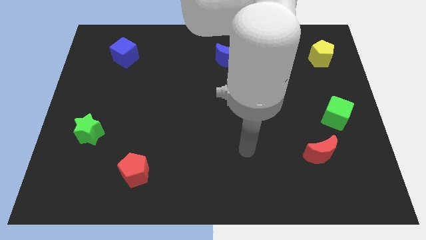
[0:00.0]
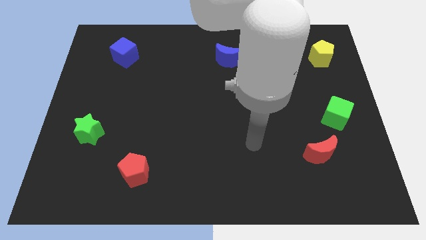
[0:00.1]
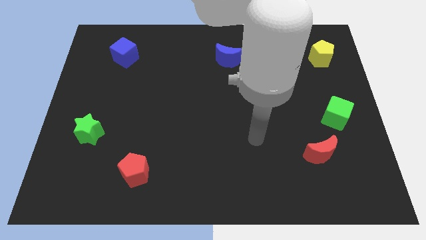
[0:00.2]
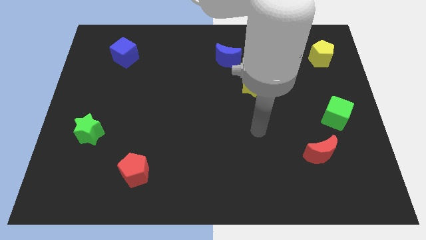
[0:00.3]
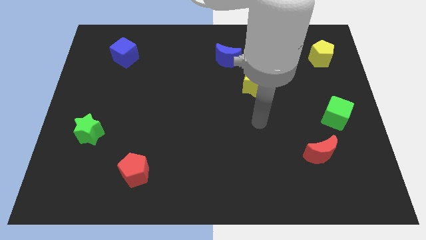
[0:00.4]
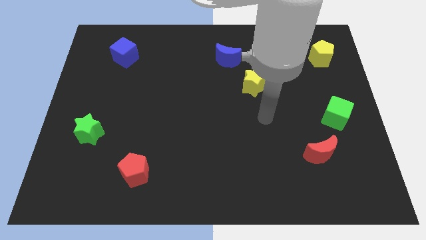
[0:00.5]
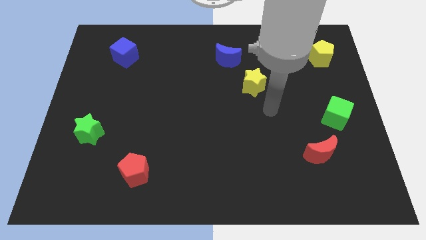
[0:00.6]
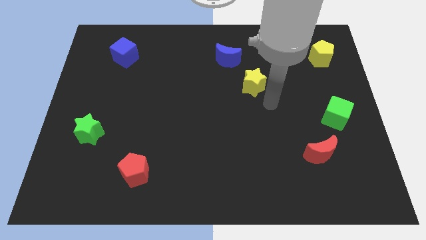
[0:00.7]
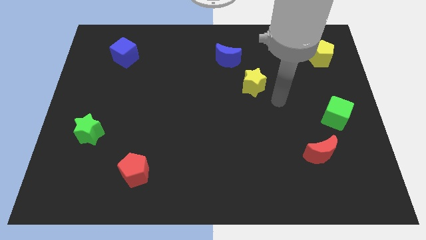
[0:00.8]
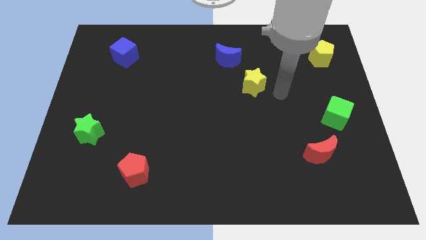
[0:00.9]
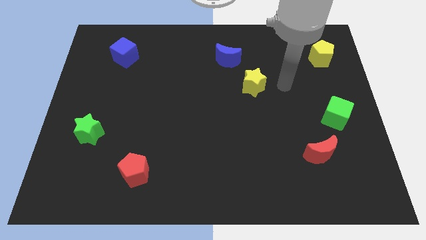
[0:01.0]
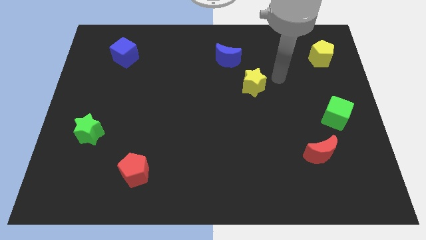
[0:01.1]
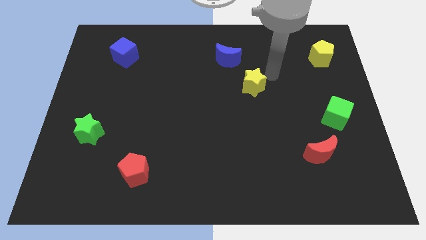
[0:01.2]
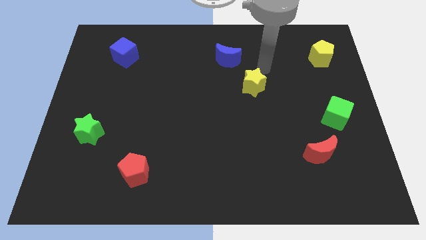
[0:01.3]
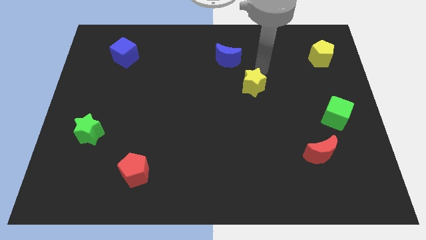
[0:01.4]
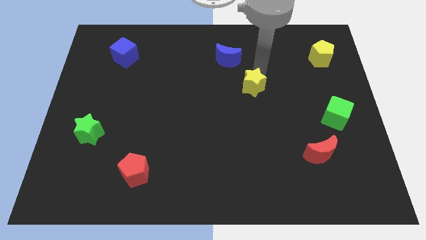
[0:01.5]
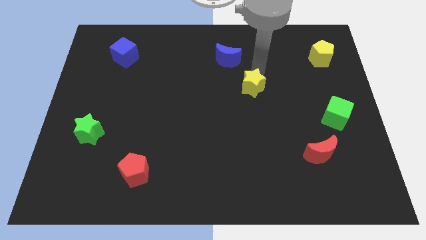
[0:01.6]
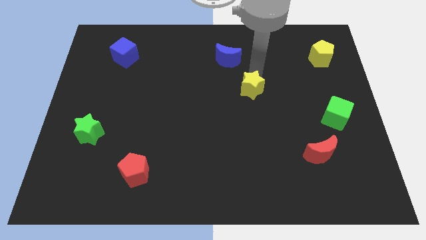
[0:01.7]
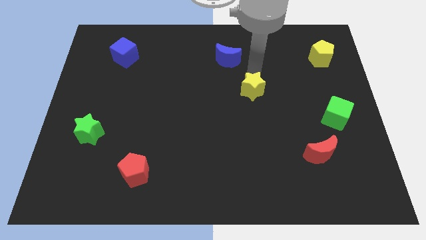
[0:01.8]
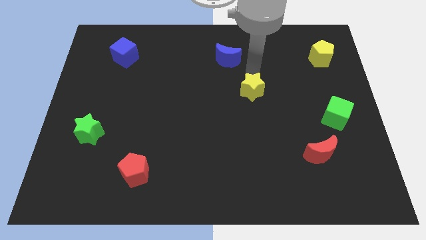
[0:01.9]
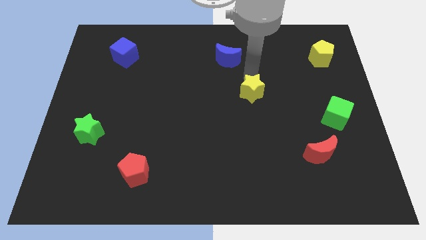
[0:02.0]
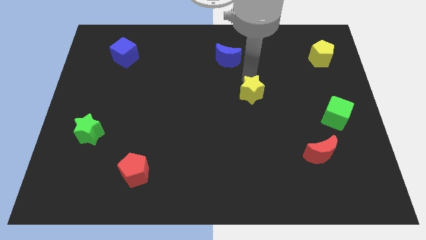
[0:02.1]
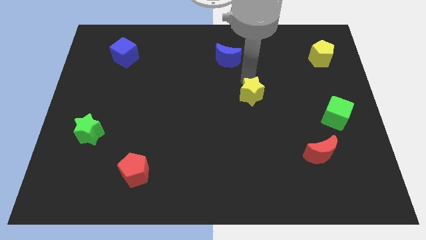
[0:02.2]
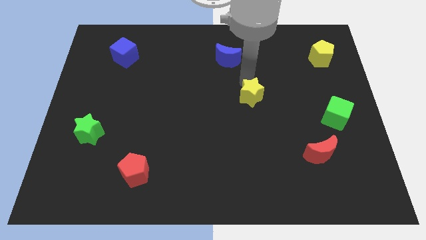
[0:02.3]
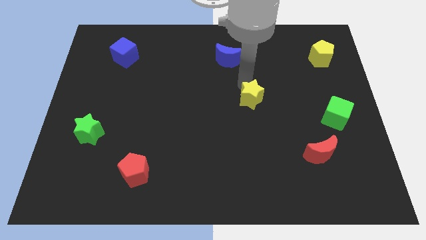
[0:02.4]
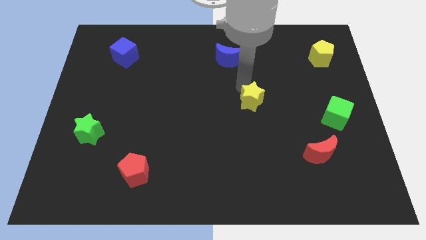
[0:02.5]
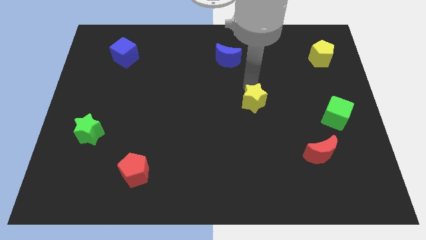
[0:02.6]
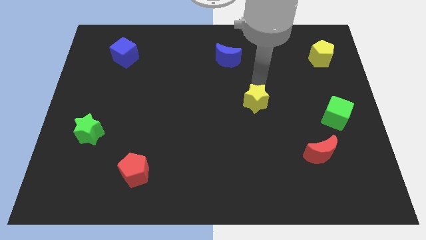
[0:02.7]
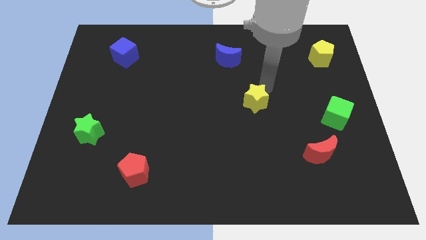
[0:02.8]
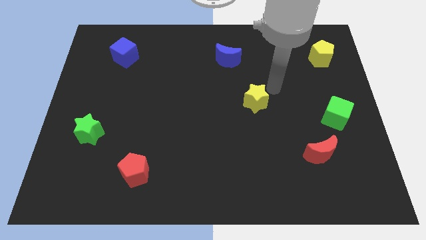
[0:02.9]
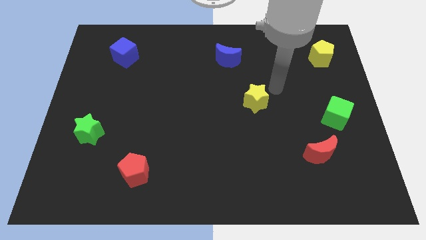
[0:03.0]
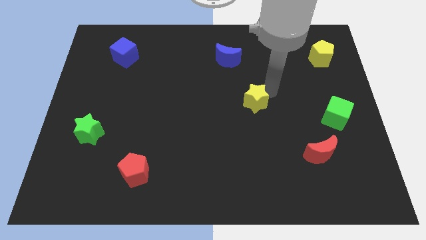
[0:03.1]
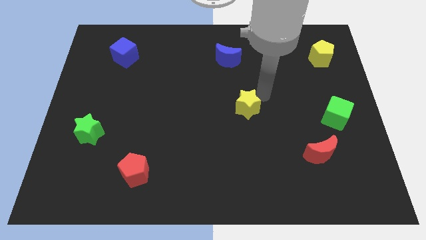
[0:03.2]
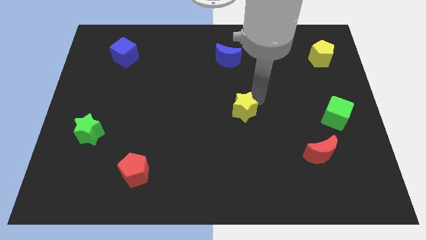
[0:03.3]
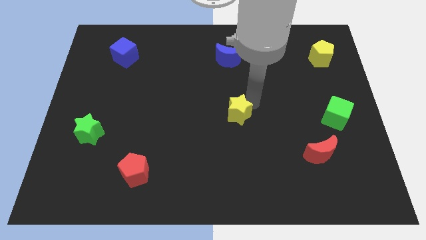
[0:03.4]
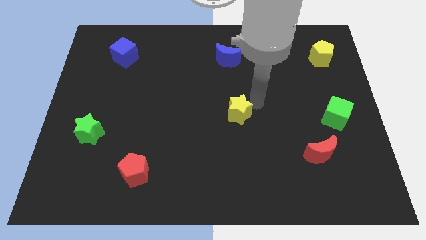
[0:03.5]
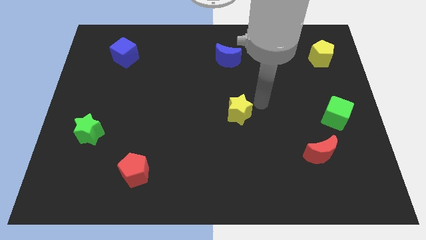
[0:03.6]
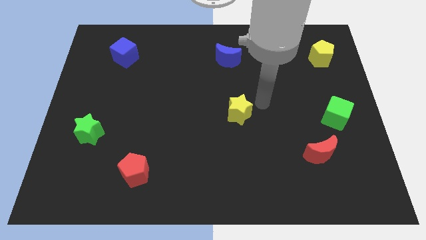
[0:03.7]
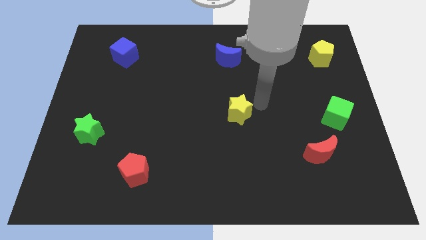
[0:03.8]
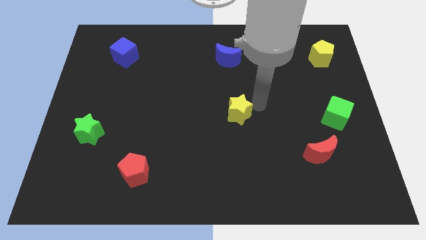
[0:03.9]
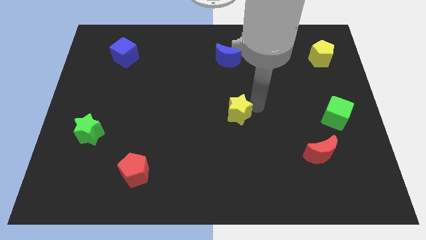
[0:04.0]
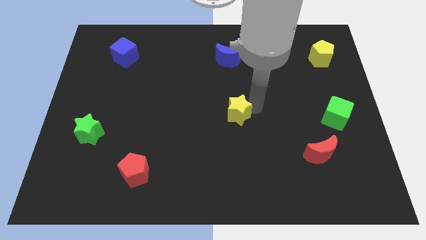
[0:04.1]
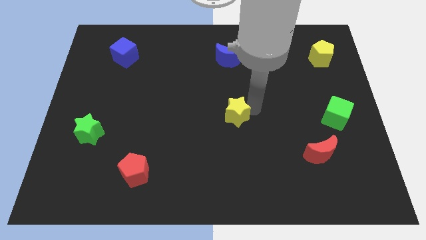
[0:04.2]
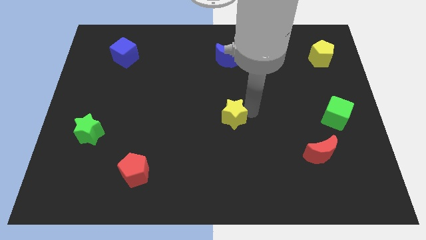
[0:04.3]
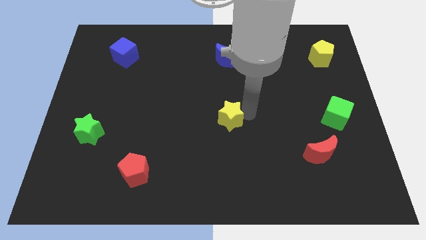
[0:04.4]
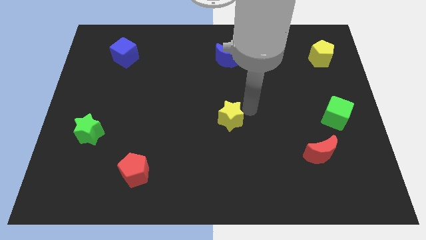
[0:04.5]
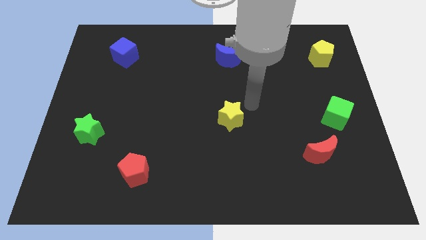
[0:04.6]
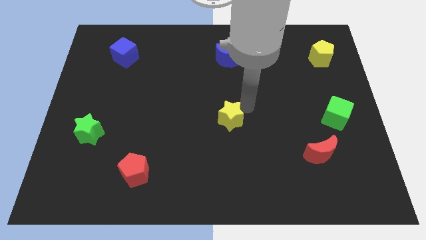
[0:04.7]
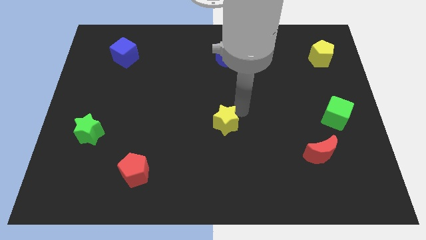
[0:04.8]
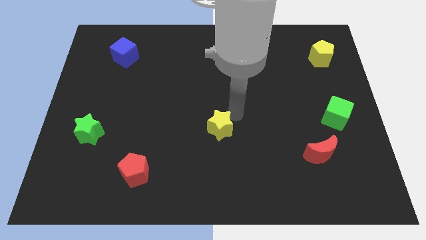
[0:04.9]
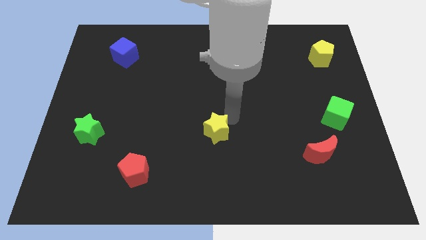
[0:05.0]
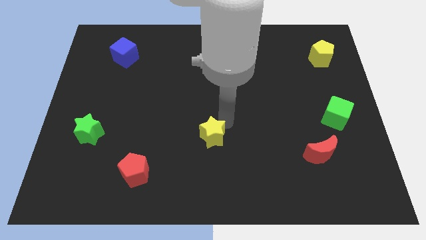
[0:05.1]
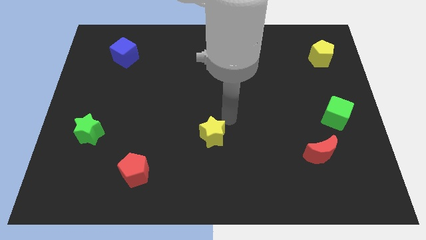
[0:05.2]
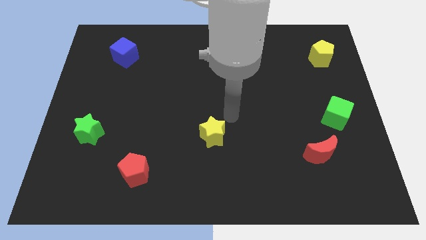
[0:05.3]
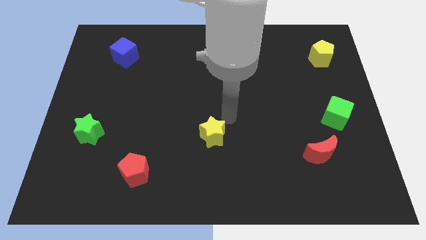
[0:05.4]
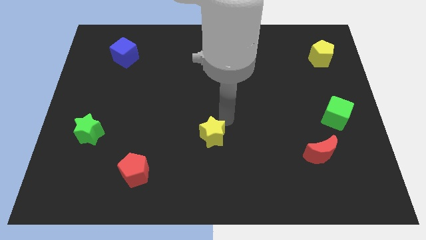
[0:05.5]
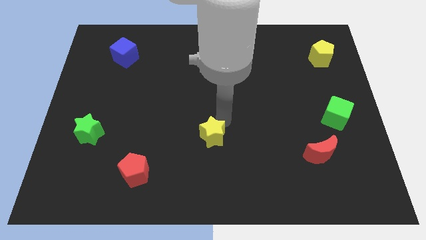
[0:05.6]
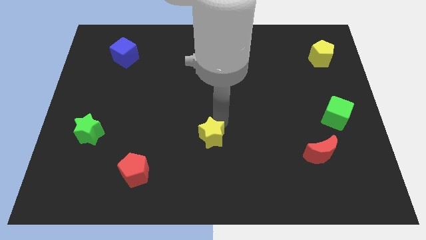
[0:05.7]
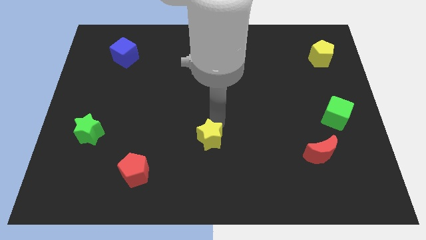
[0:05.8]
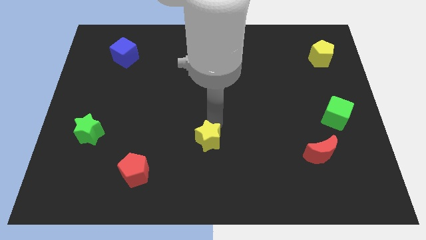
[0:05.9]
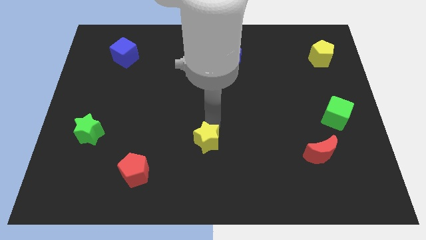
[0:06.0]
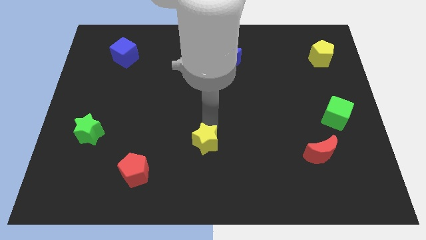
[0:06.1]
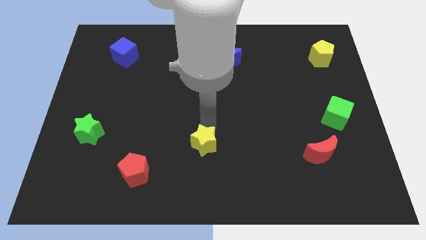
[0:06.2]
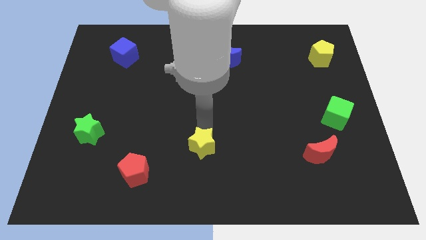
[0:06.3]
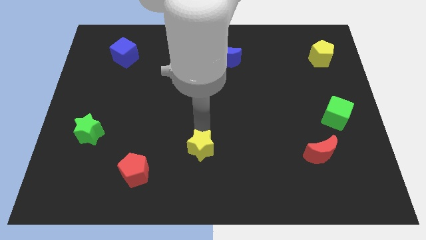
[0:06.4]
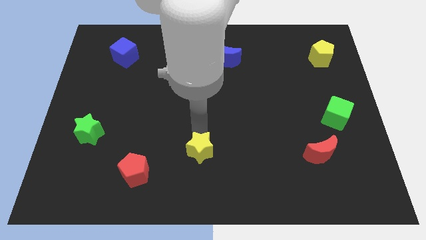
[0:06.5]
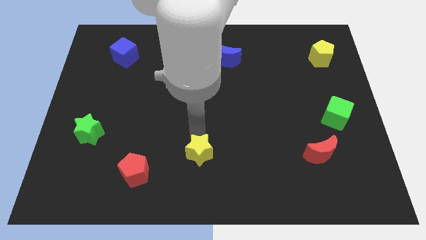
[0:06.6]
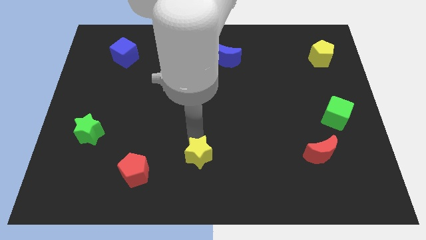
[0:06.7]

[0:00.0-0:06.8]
move the yellow star to the right side of the red pentagon

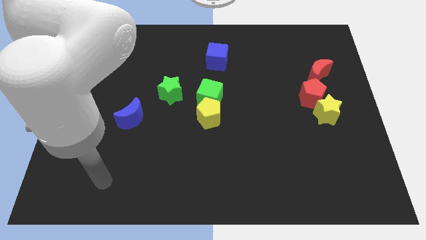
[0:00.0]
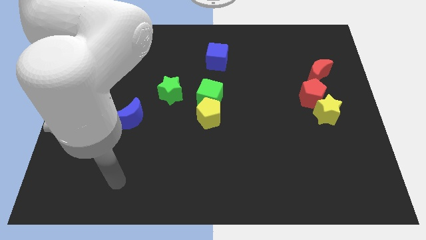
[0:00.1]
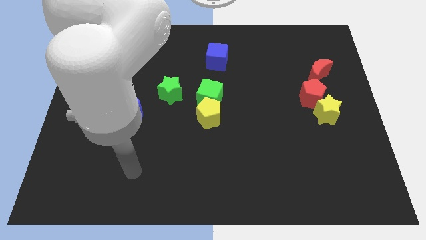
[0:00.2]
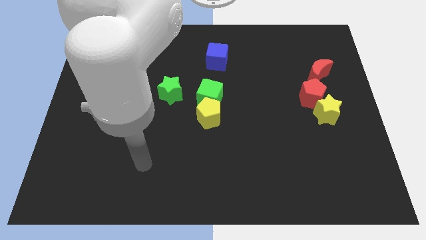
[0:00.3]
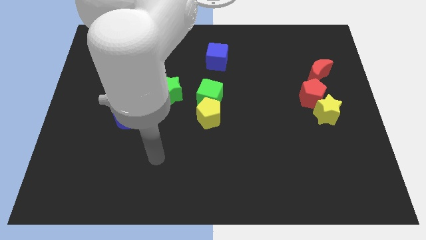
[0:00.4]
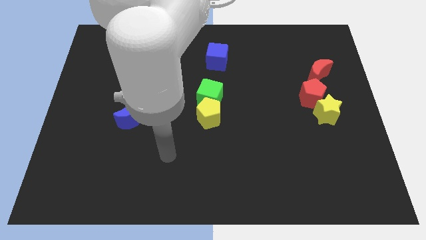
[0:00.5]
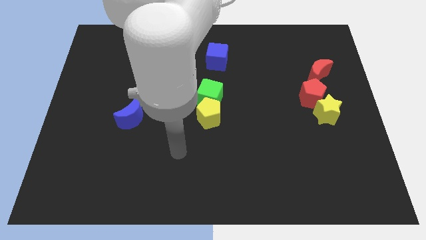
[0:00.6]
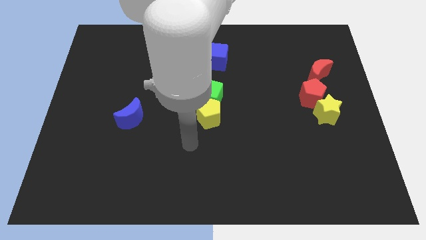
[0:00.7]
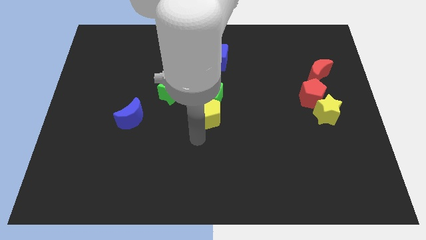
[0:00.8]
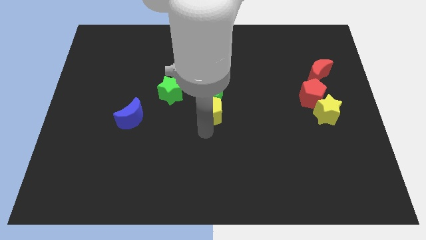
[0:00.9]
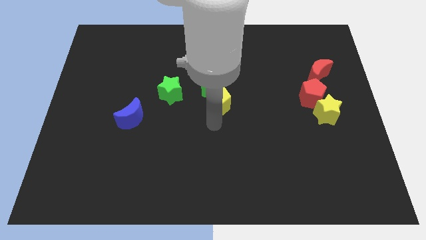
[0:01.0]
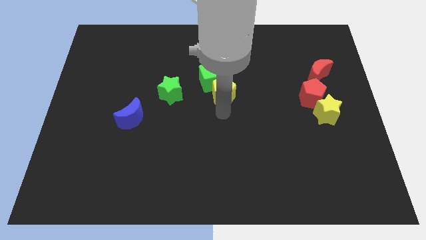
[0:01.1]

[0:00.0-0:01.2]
push the green cube diagonally down and to the left of the blue cube
